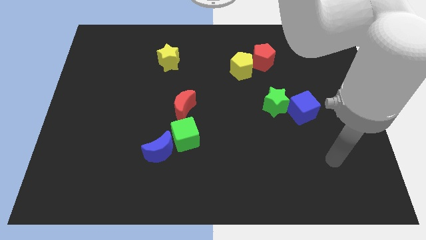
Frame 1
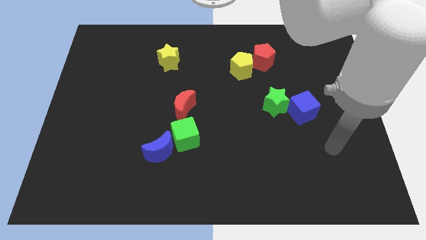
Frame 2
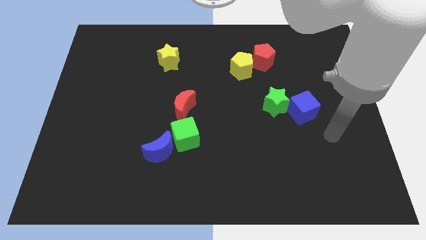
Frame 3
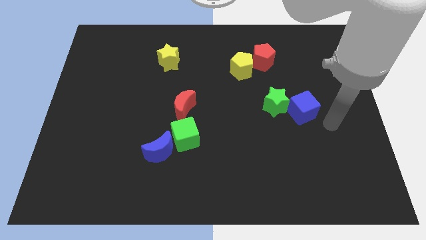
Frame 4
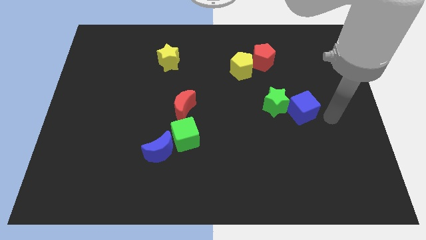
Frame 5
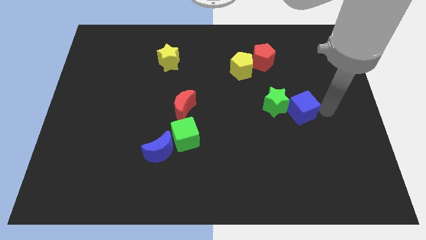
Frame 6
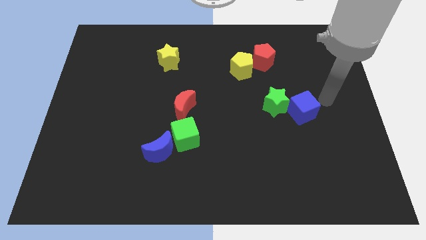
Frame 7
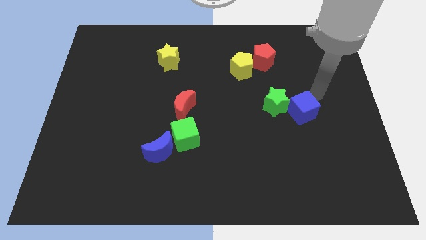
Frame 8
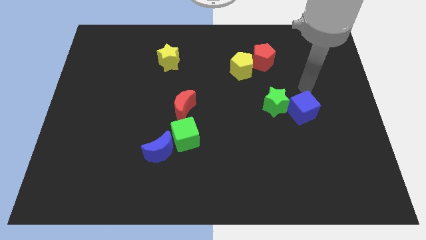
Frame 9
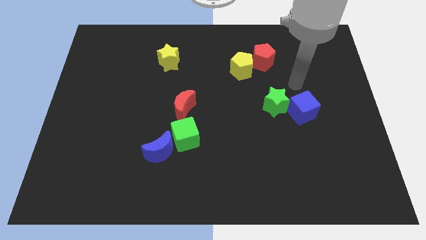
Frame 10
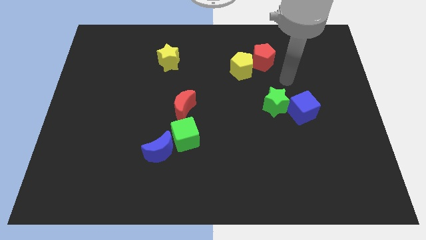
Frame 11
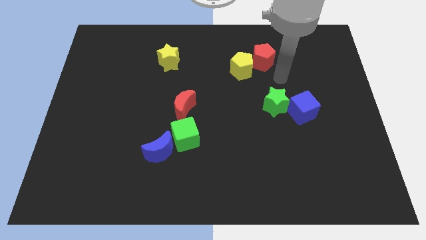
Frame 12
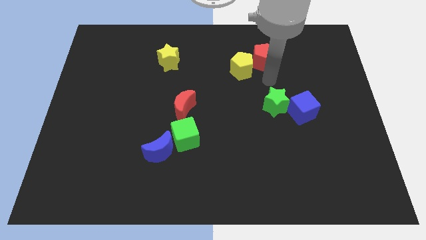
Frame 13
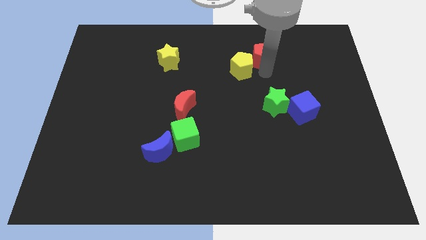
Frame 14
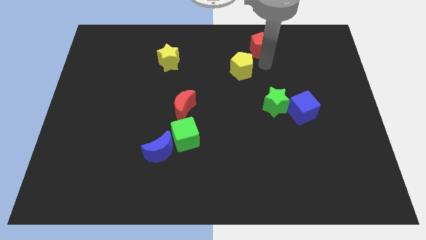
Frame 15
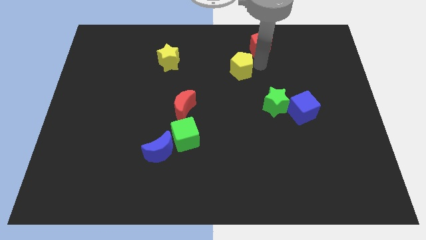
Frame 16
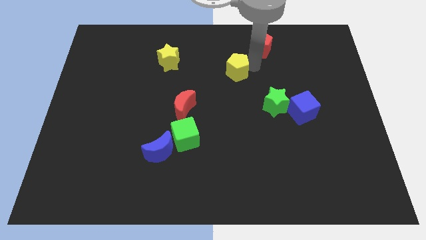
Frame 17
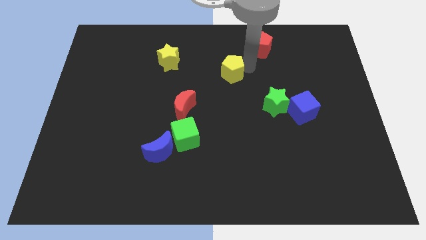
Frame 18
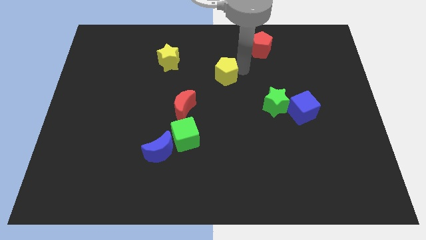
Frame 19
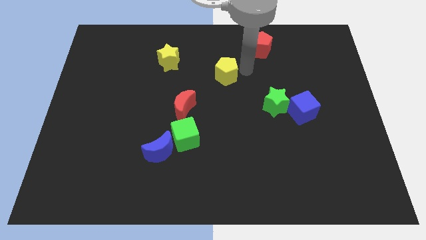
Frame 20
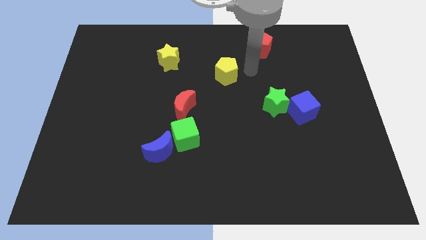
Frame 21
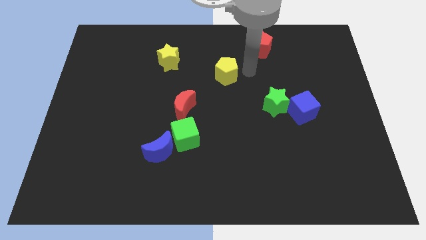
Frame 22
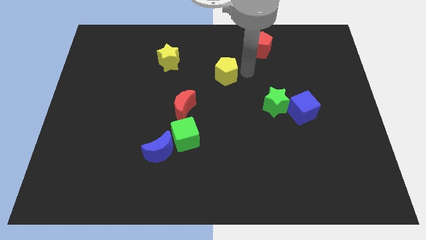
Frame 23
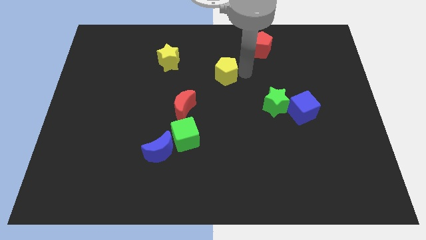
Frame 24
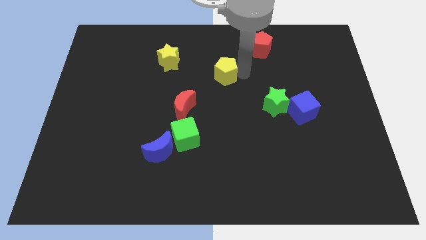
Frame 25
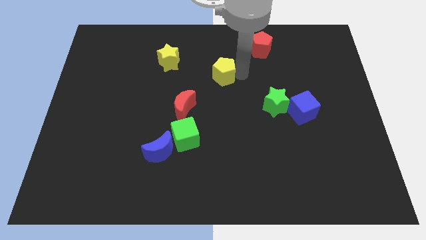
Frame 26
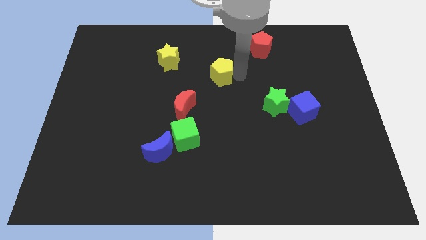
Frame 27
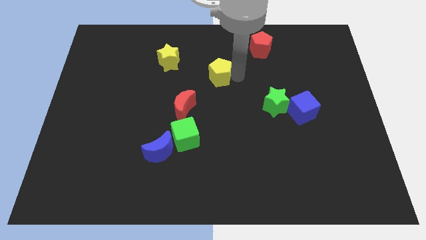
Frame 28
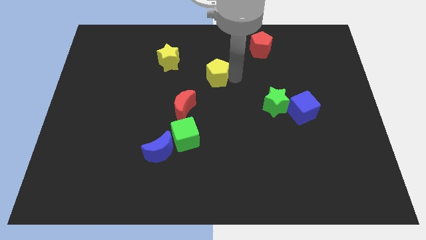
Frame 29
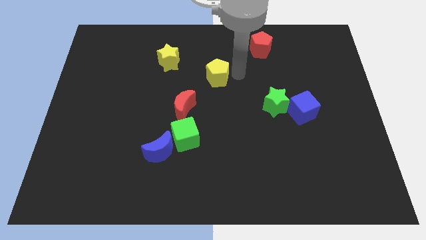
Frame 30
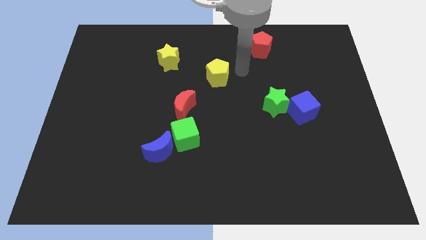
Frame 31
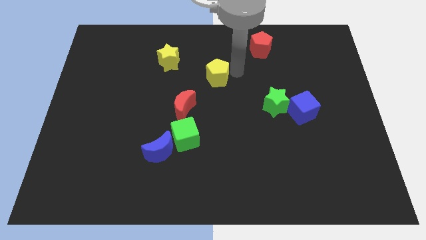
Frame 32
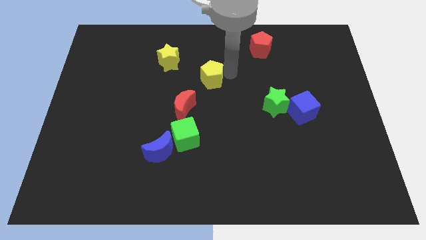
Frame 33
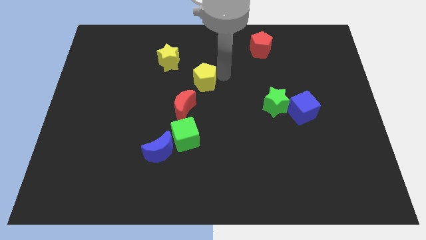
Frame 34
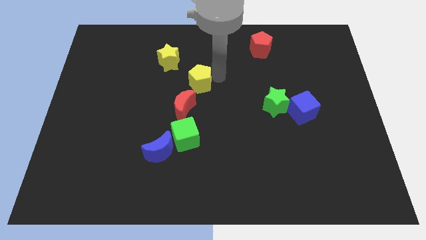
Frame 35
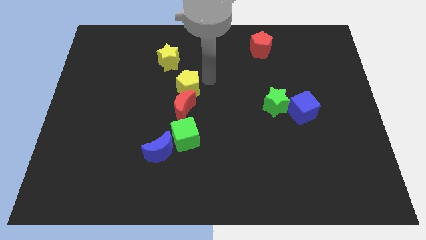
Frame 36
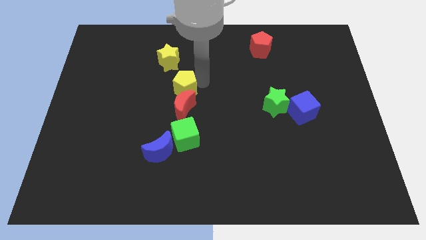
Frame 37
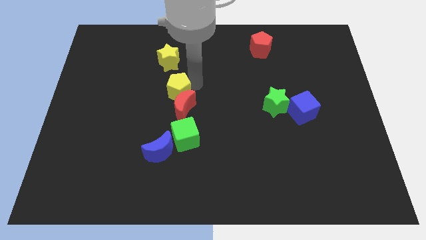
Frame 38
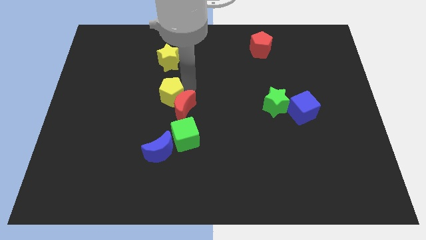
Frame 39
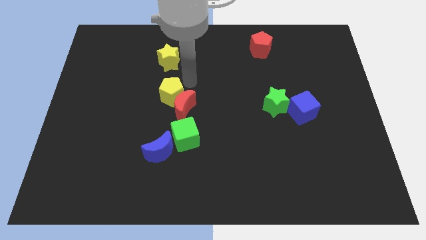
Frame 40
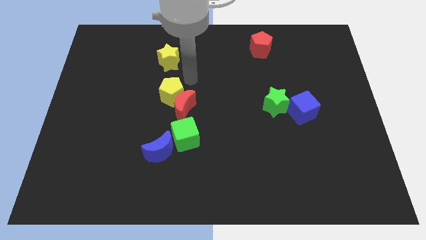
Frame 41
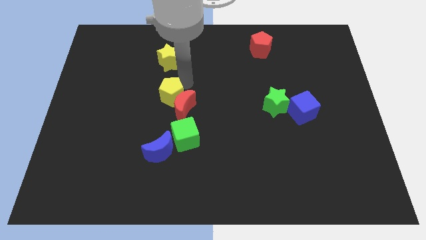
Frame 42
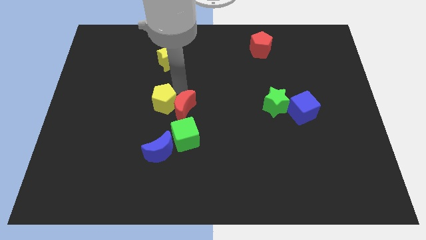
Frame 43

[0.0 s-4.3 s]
push the yellow pentagon downwards and to the left diagonally

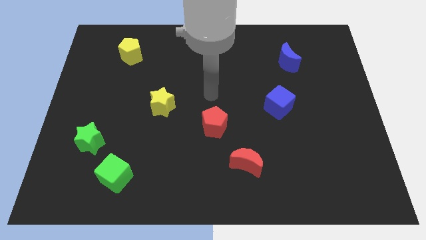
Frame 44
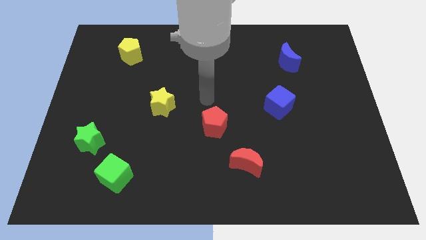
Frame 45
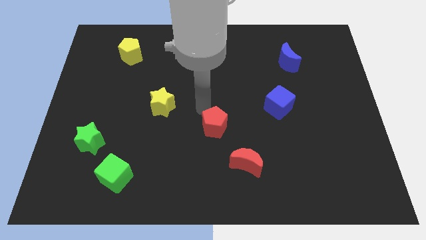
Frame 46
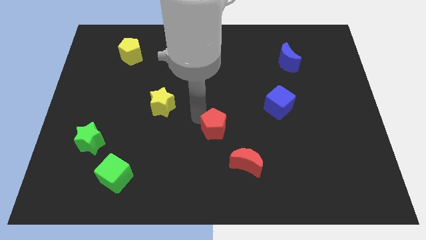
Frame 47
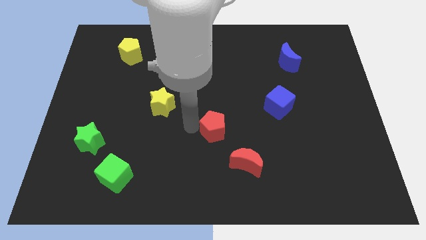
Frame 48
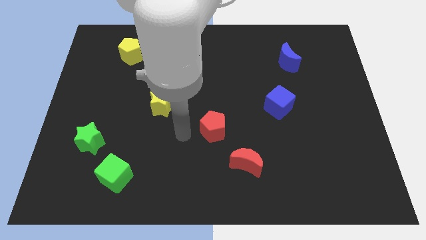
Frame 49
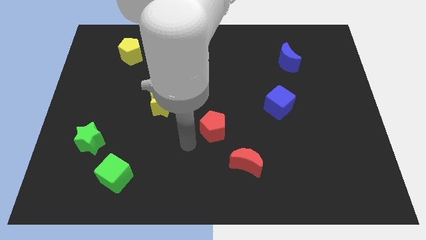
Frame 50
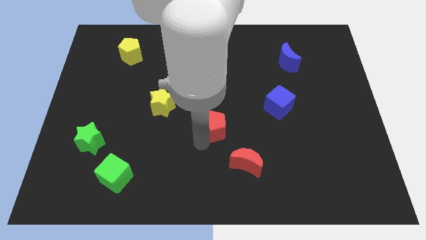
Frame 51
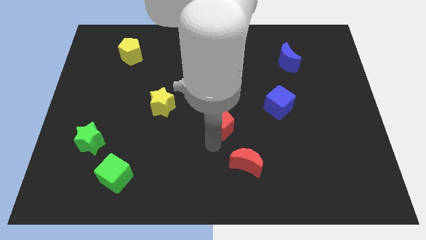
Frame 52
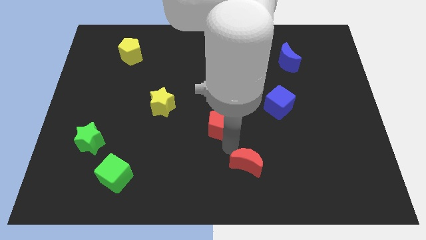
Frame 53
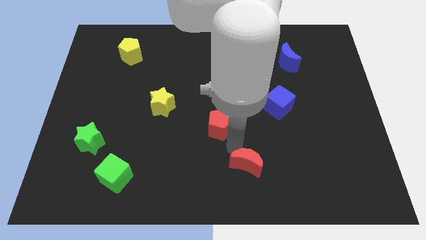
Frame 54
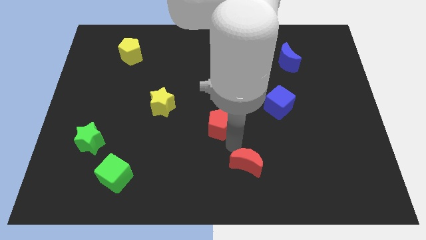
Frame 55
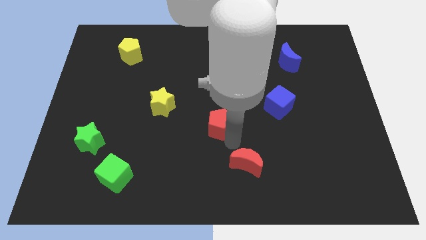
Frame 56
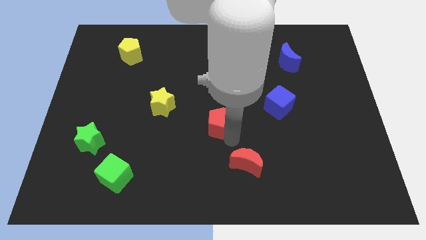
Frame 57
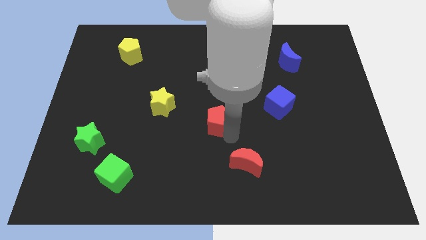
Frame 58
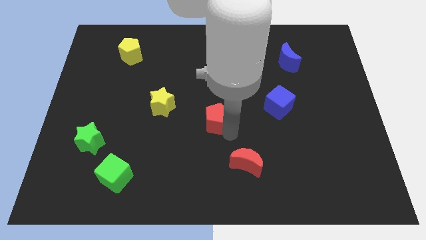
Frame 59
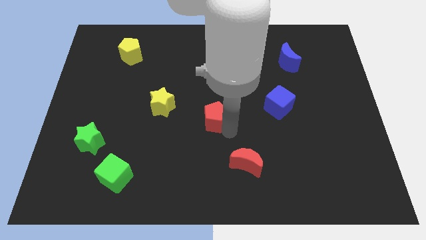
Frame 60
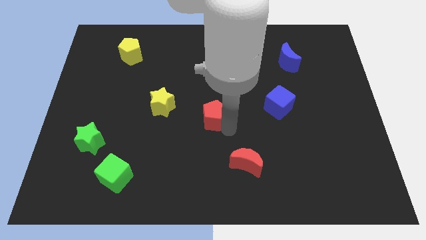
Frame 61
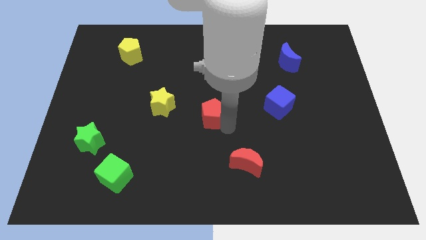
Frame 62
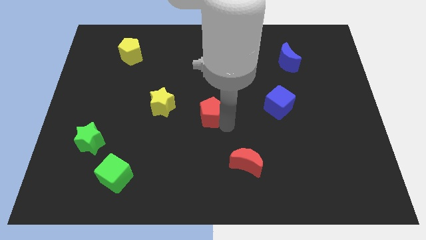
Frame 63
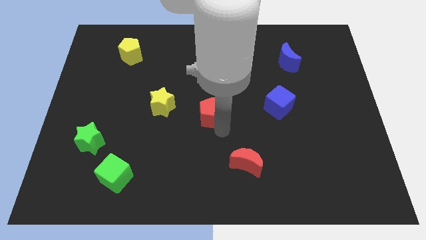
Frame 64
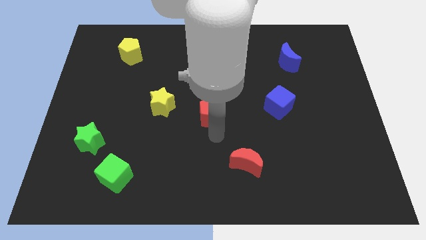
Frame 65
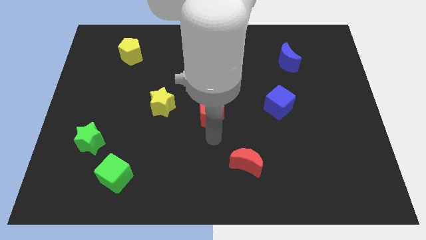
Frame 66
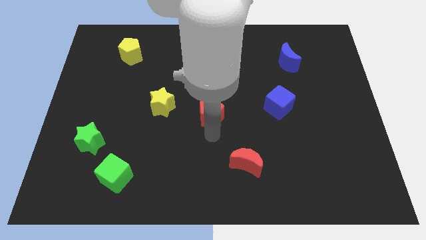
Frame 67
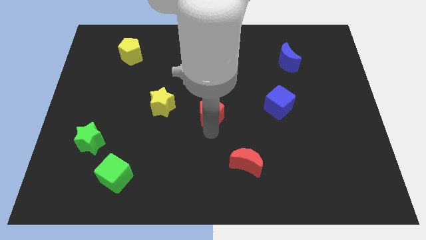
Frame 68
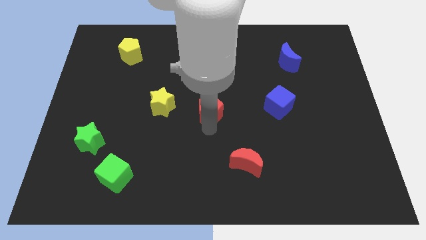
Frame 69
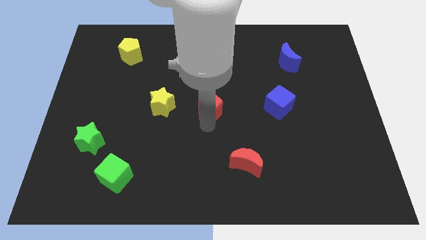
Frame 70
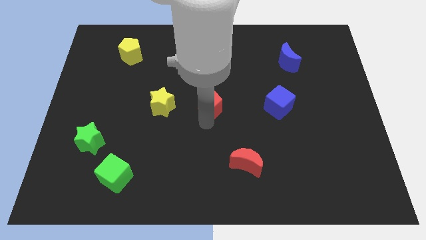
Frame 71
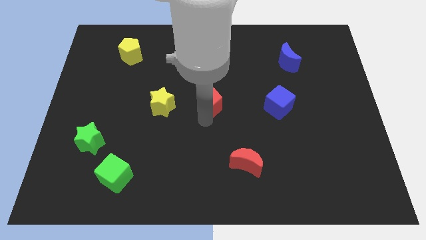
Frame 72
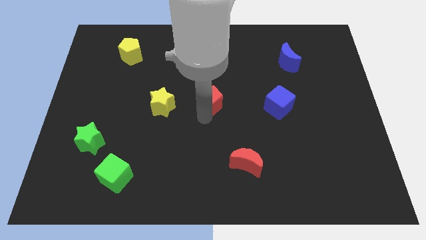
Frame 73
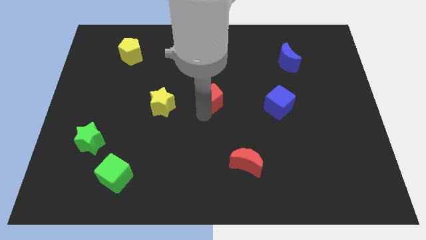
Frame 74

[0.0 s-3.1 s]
slightly slide the red pentagon upwards

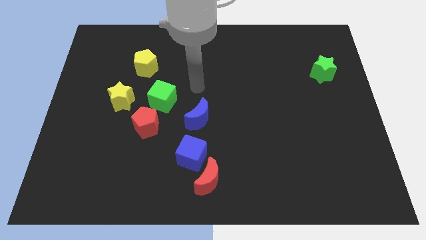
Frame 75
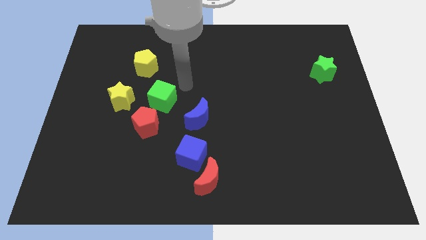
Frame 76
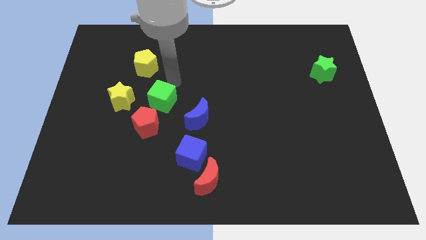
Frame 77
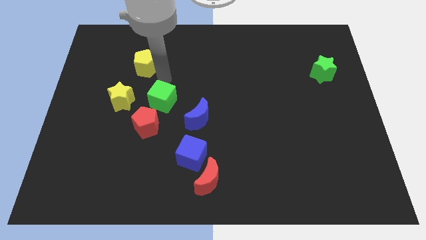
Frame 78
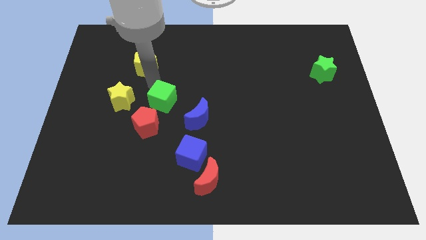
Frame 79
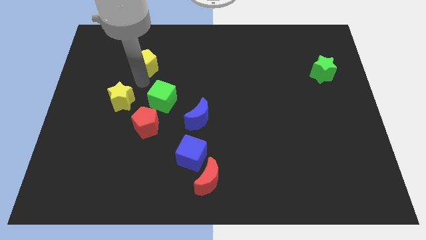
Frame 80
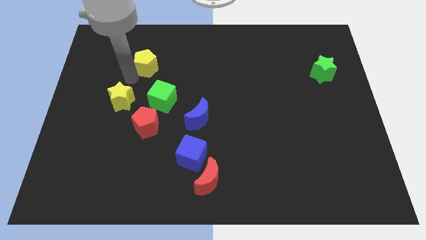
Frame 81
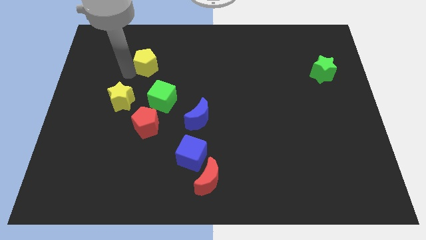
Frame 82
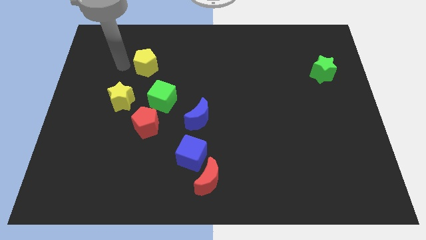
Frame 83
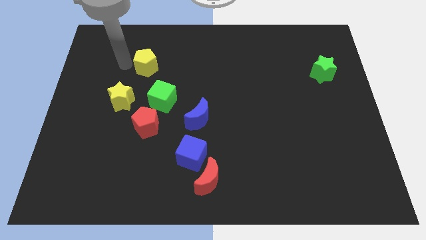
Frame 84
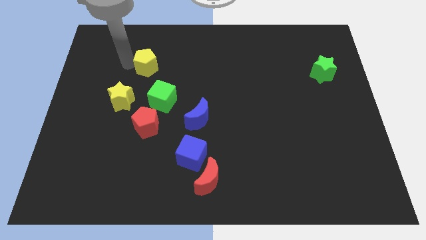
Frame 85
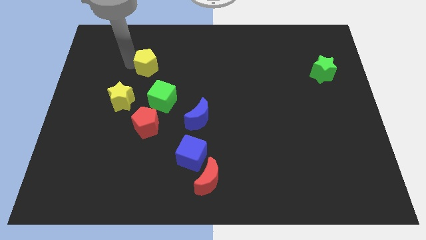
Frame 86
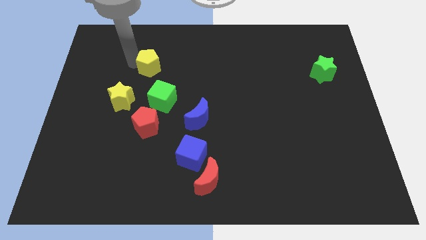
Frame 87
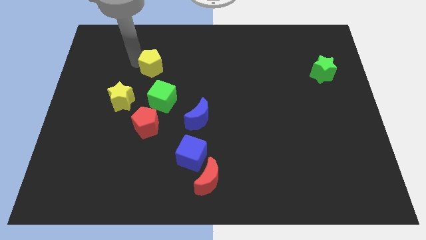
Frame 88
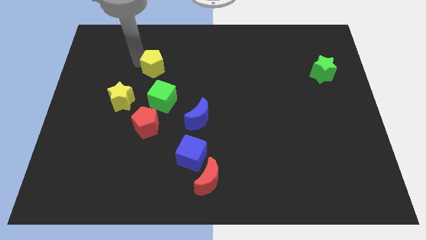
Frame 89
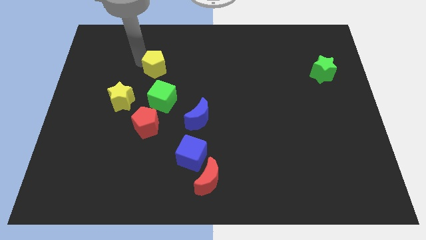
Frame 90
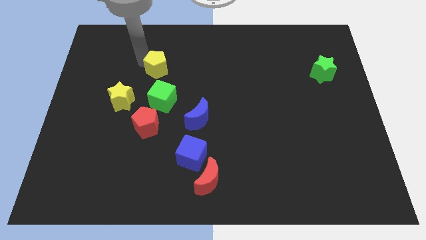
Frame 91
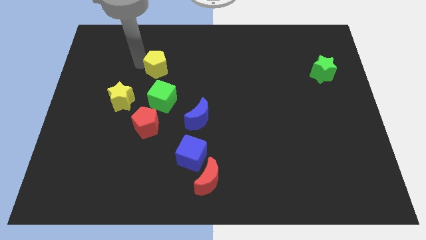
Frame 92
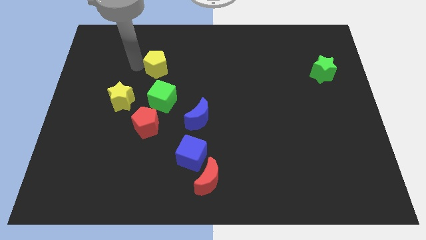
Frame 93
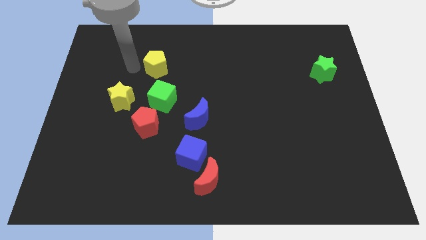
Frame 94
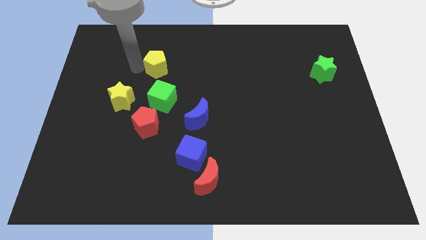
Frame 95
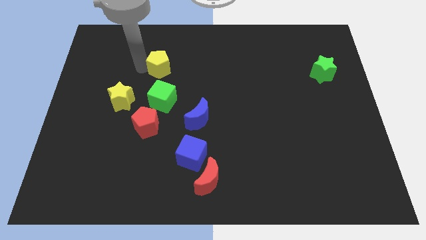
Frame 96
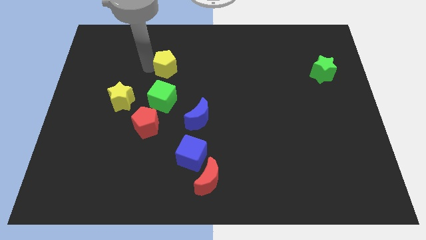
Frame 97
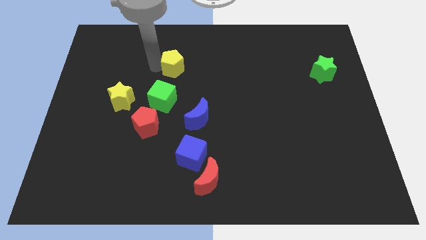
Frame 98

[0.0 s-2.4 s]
push the yellow pentagon to the right a bit
